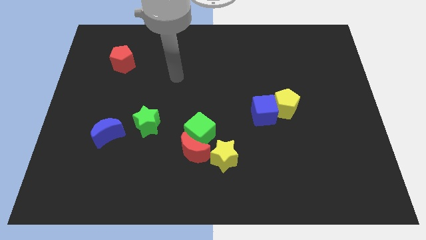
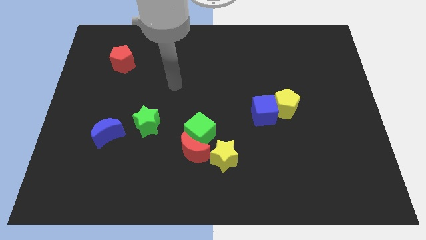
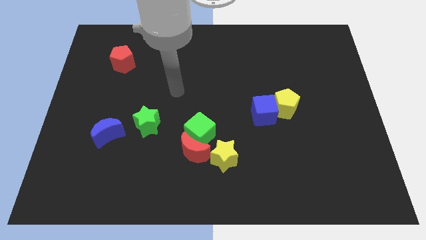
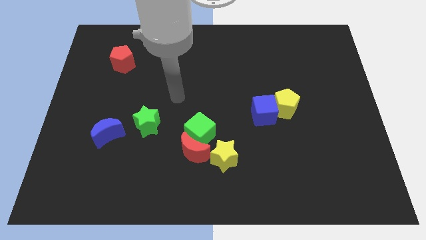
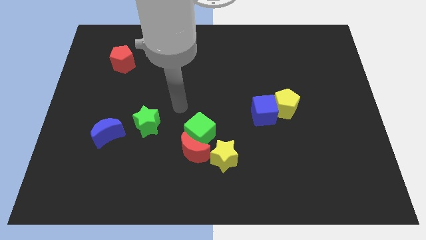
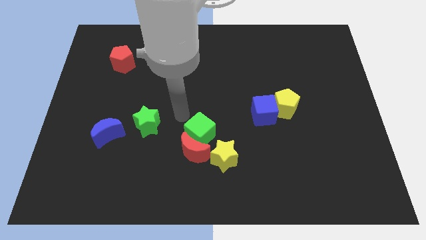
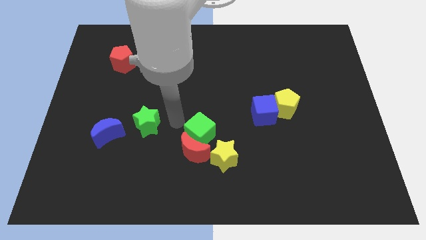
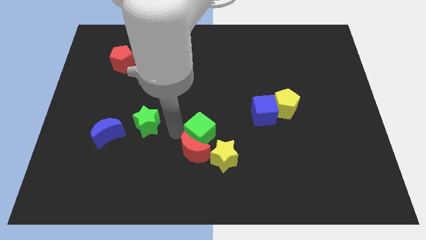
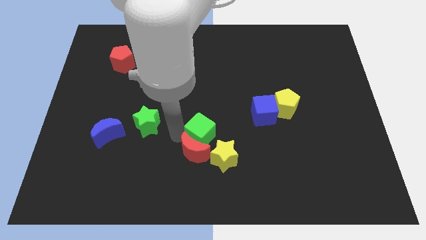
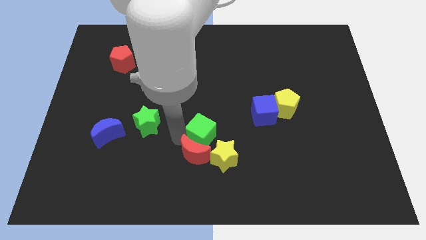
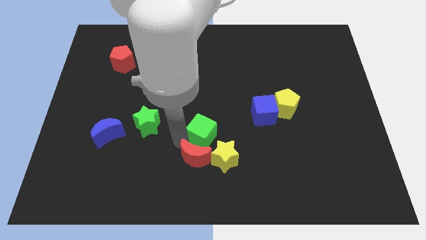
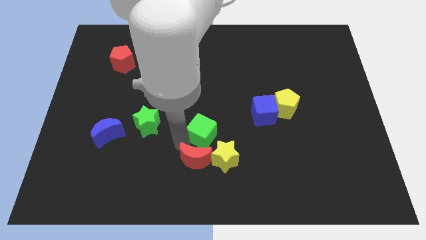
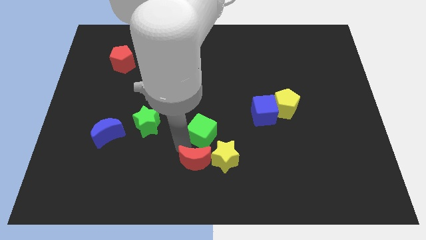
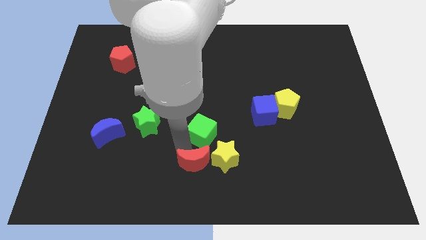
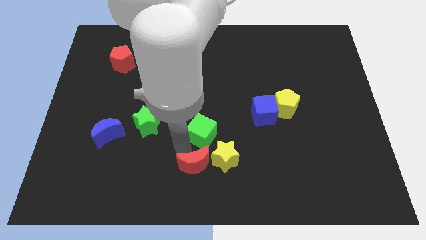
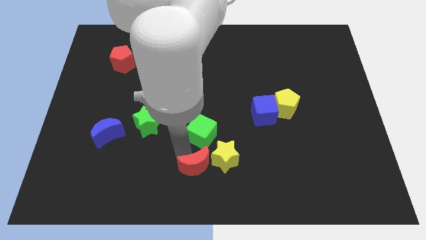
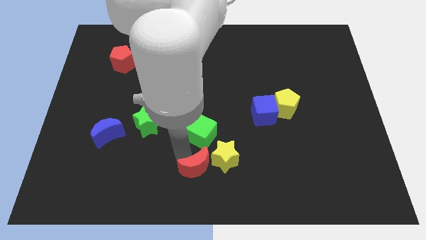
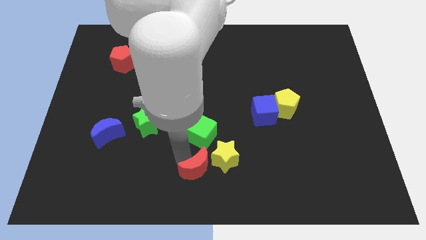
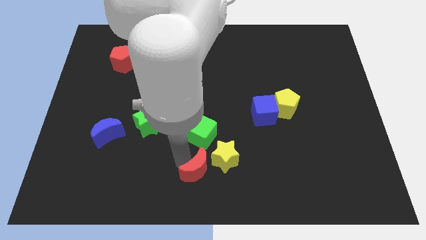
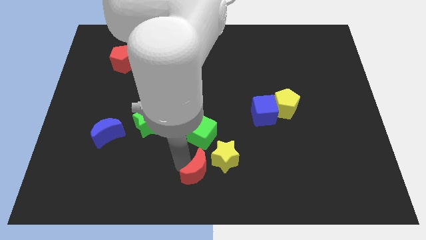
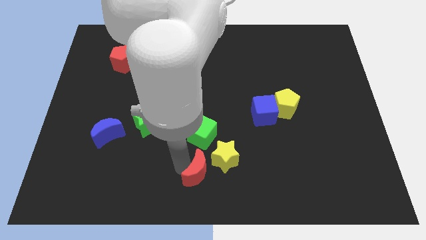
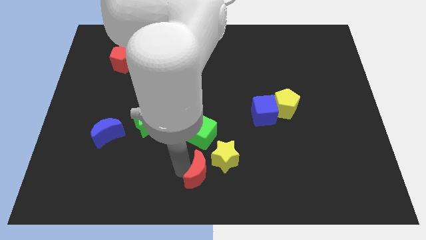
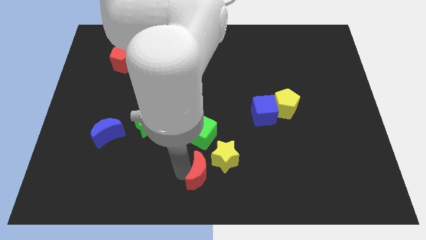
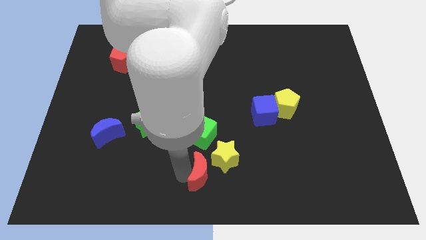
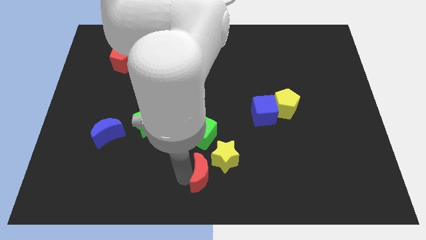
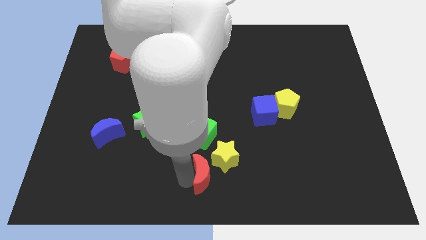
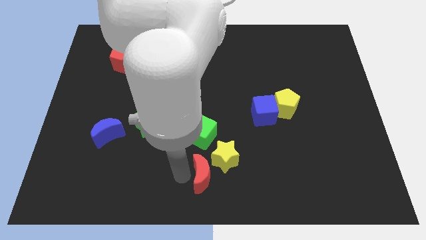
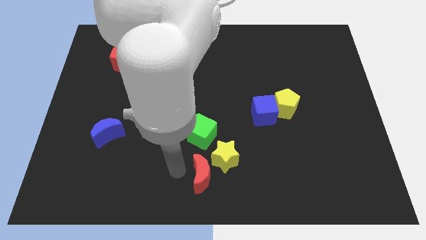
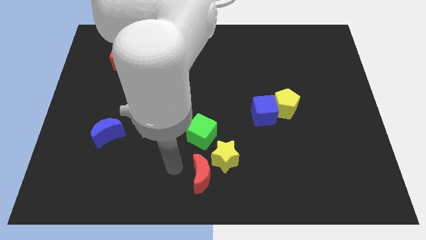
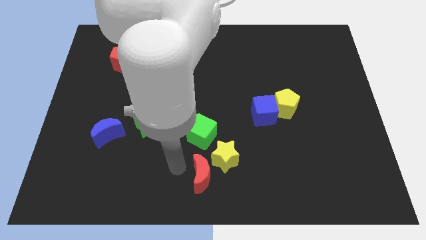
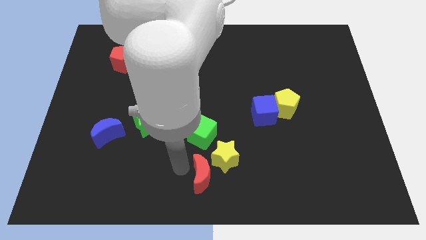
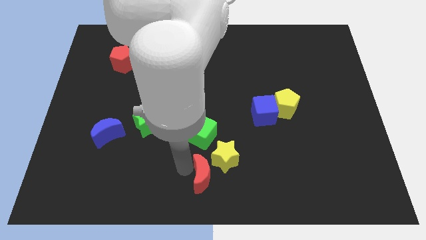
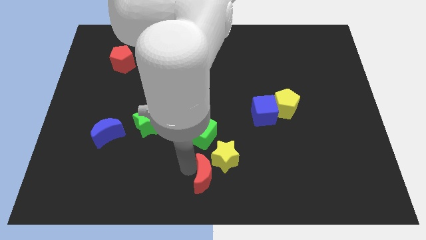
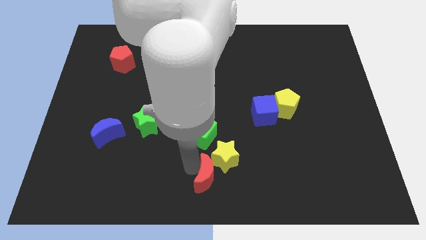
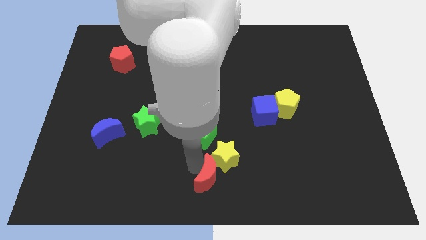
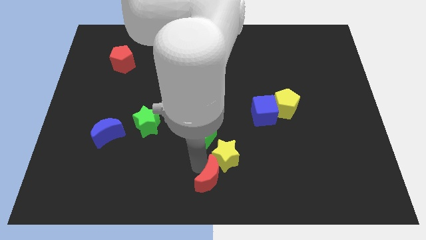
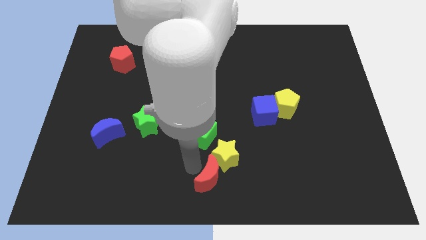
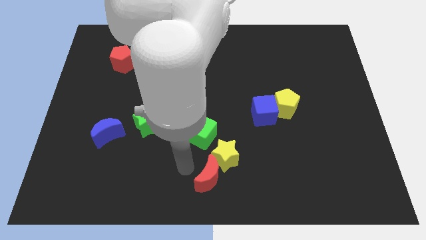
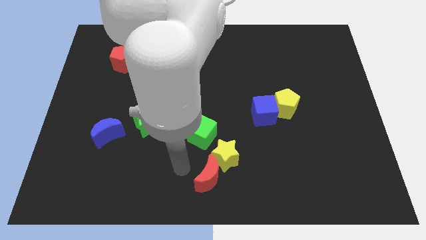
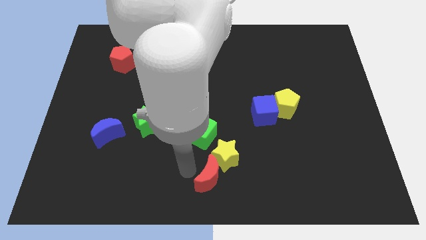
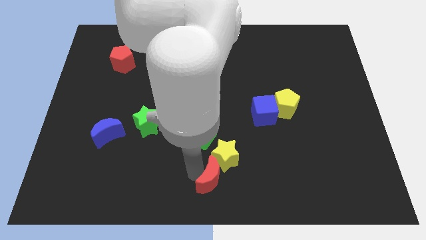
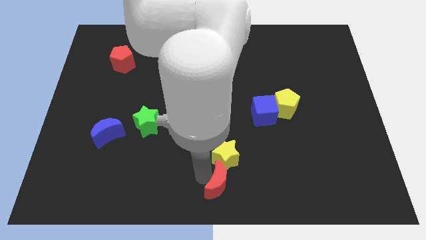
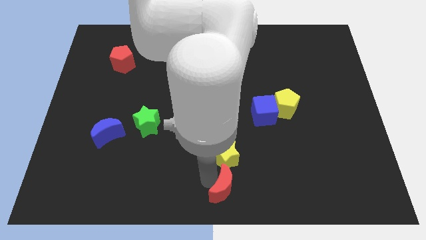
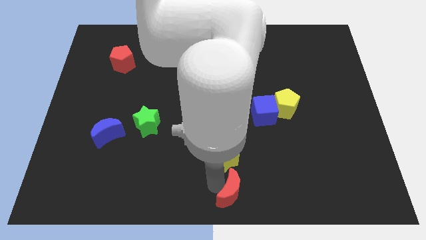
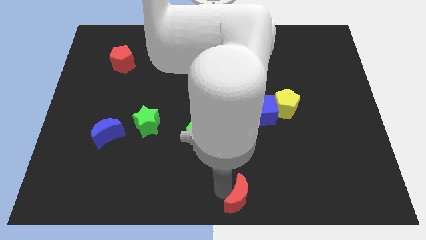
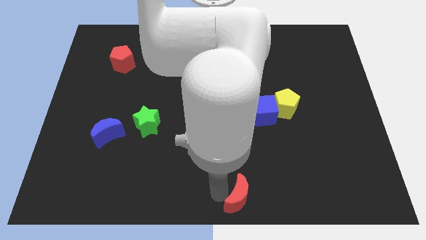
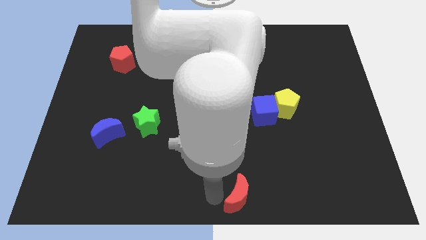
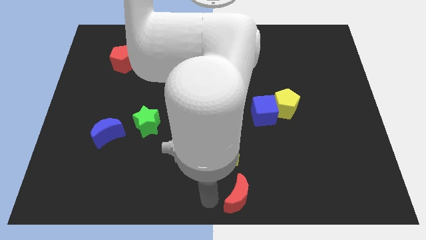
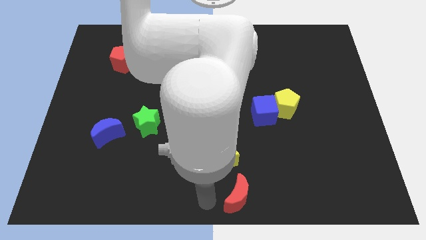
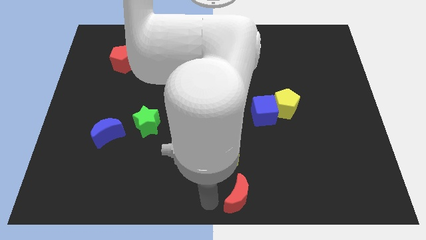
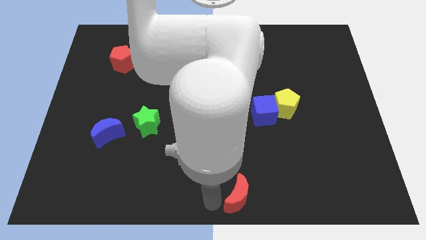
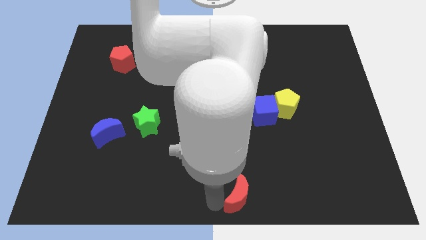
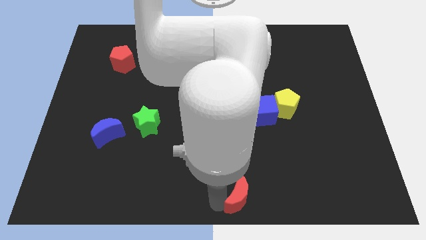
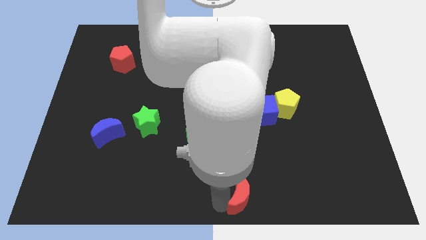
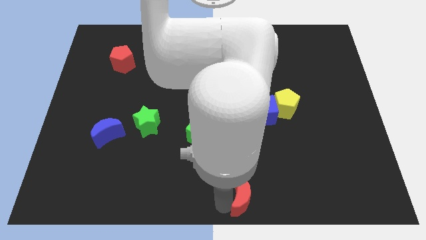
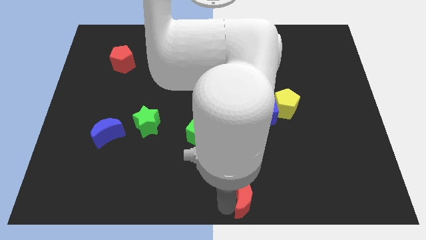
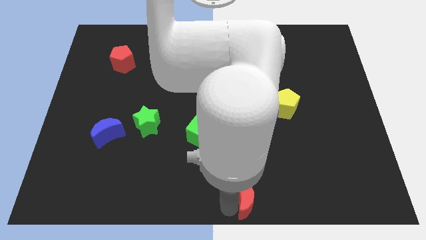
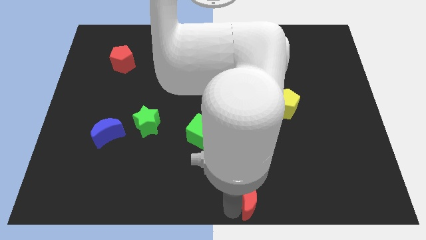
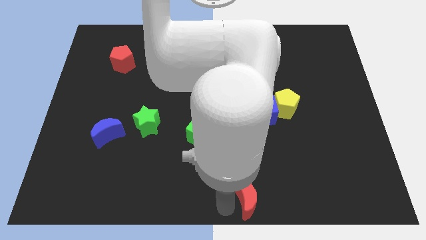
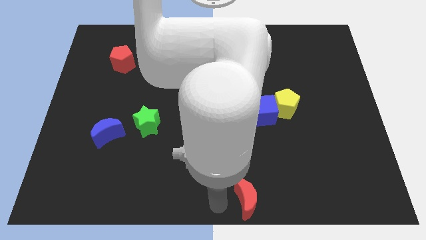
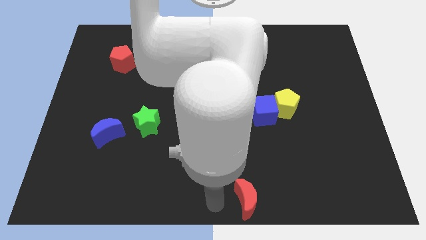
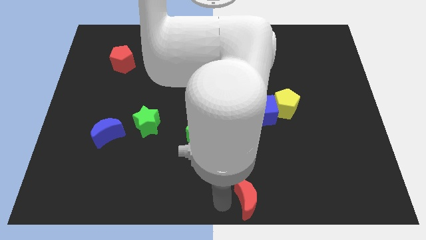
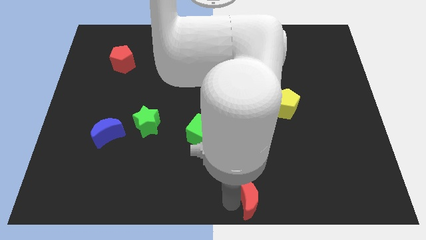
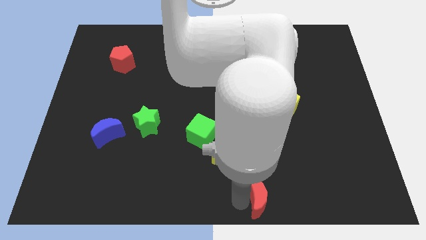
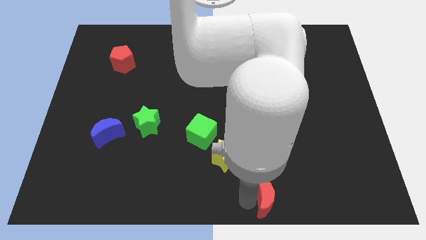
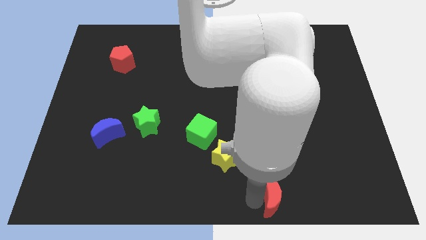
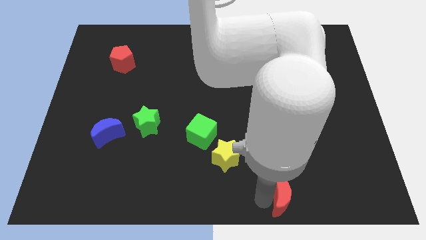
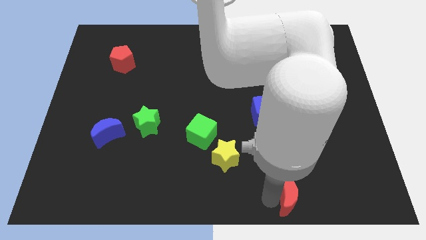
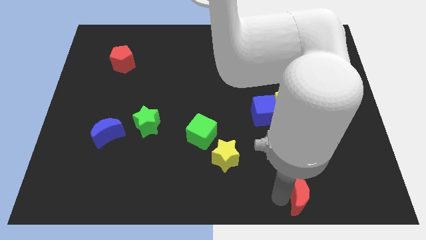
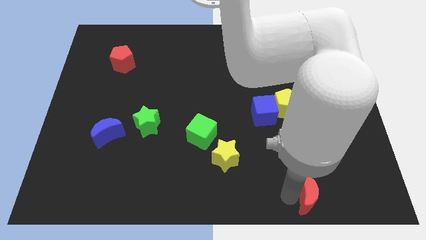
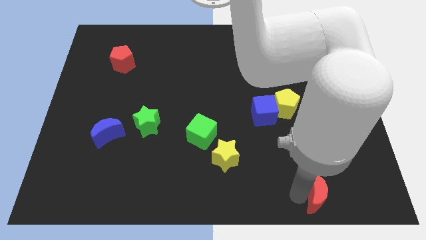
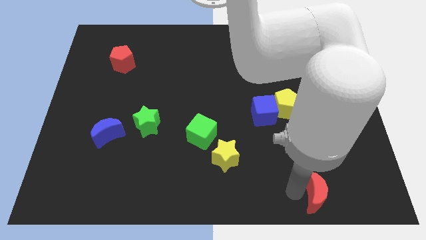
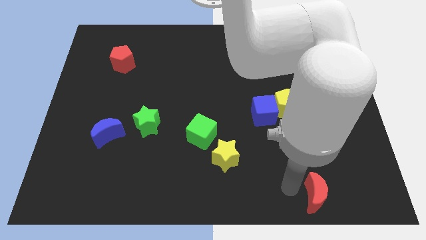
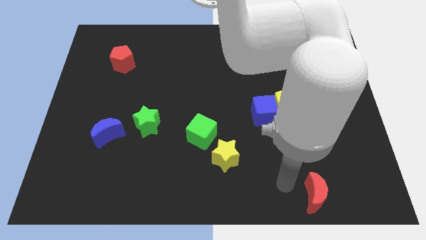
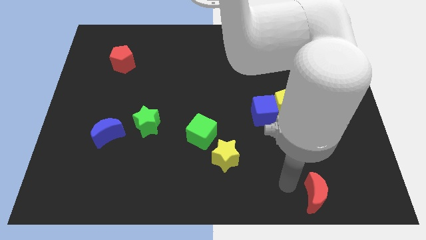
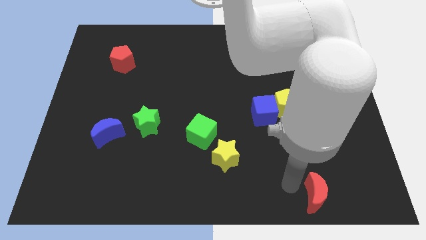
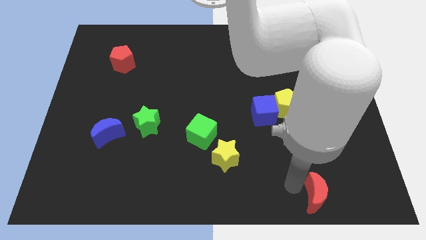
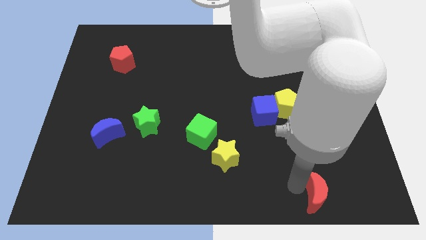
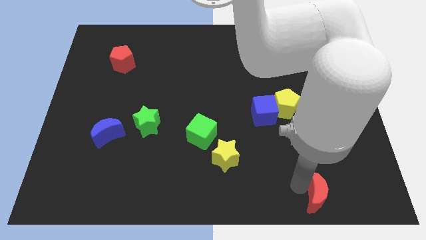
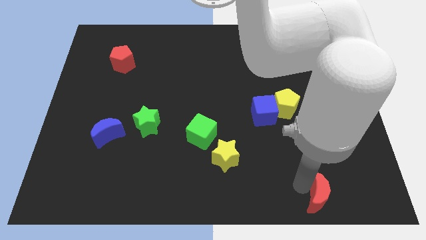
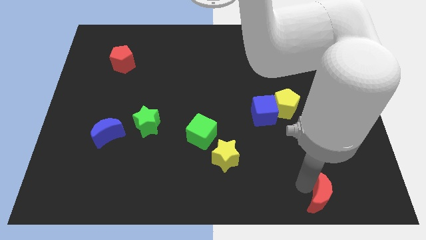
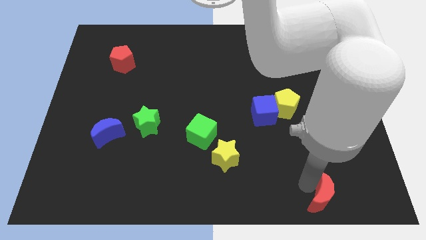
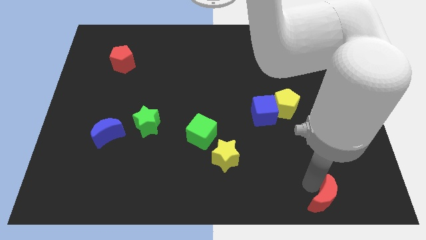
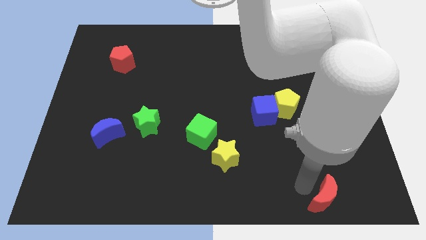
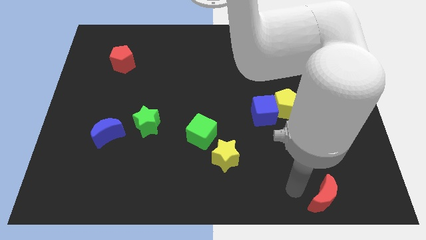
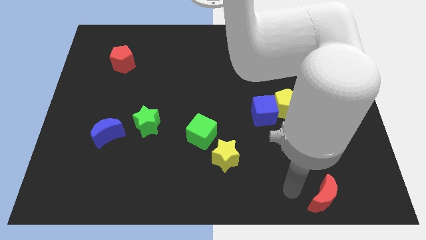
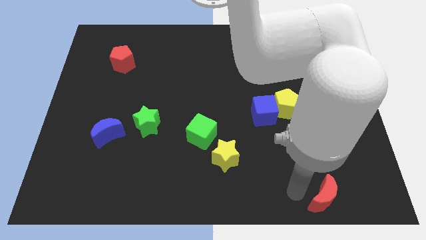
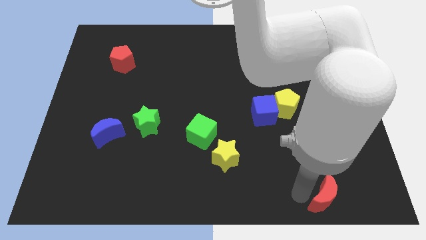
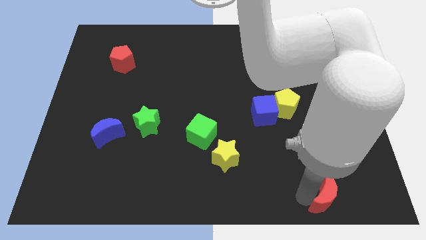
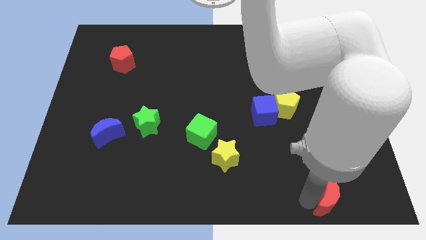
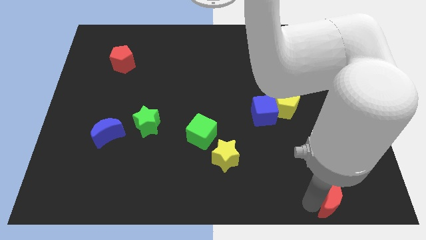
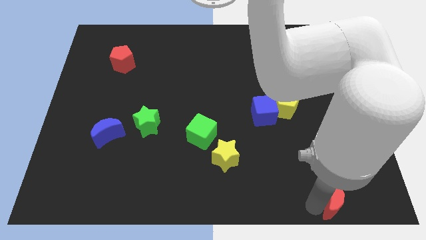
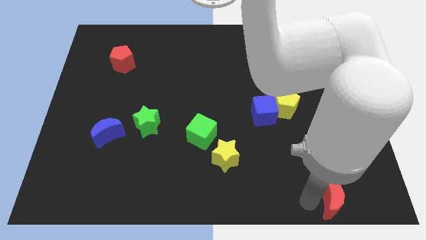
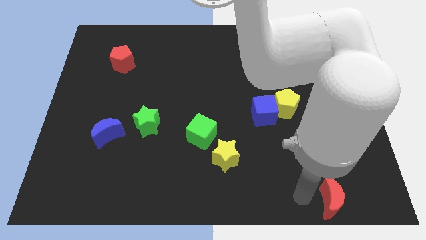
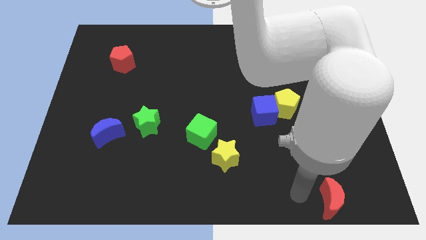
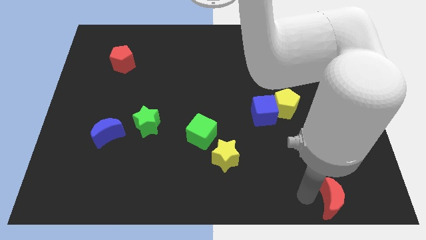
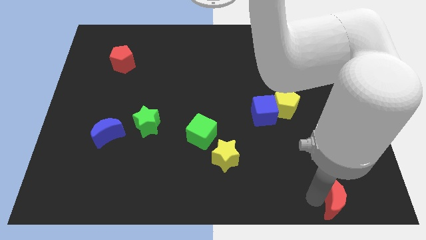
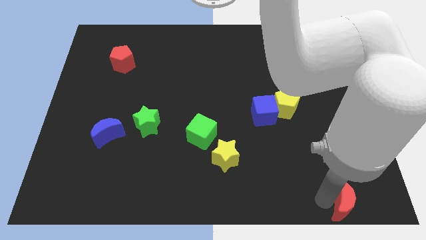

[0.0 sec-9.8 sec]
slide the red moon to the bottom right corner
